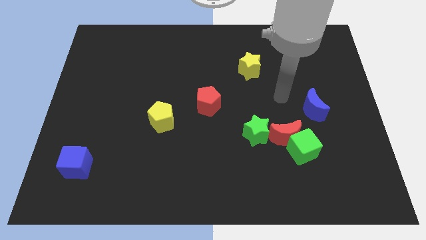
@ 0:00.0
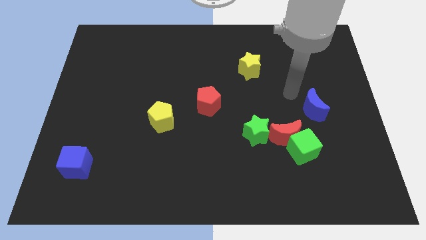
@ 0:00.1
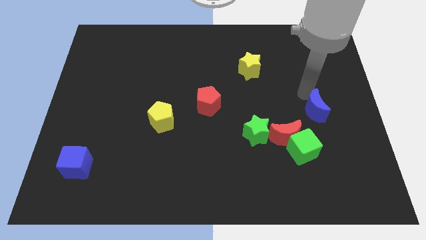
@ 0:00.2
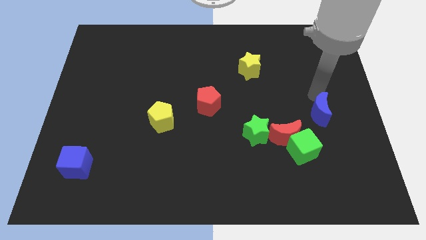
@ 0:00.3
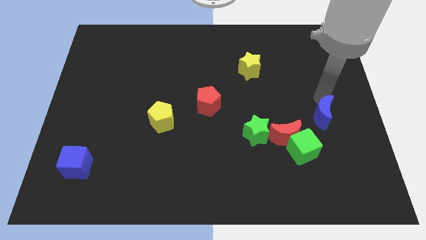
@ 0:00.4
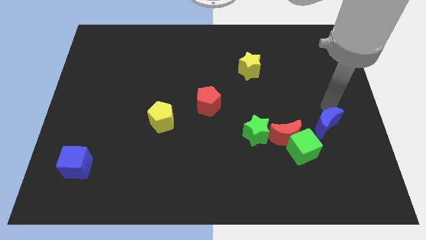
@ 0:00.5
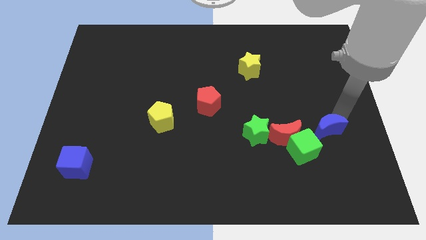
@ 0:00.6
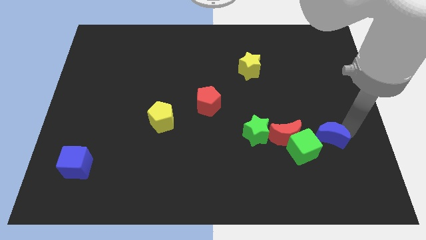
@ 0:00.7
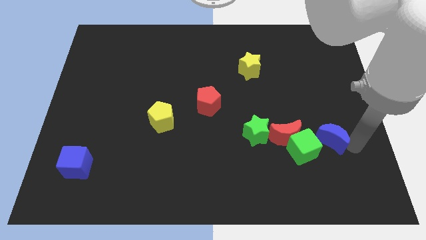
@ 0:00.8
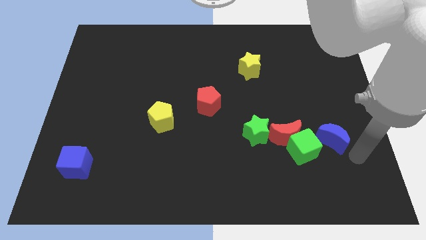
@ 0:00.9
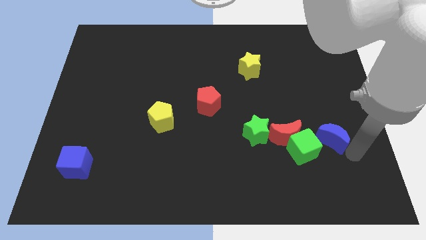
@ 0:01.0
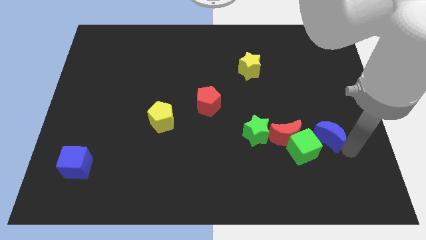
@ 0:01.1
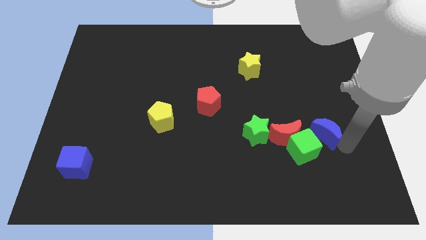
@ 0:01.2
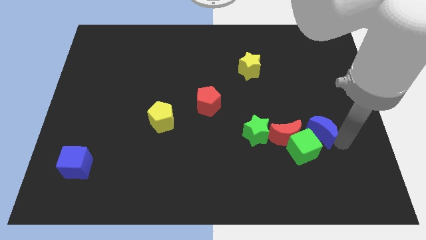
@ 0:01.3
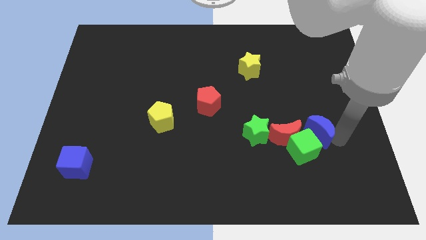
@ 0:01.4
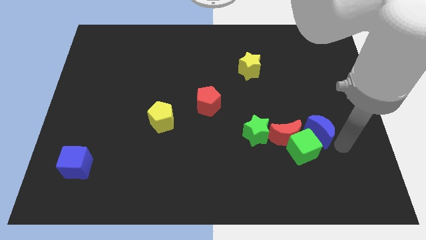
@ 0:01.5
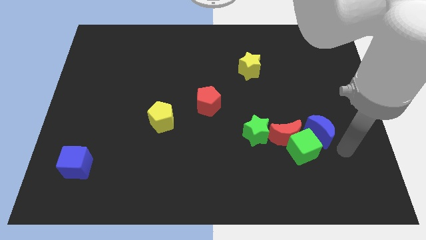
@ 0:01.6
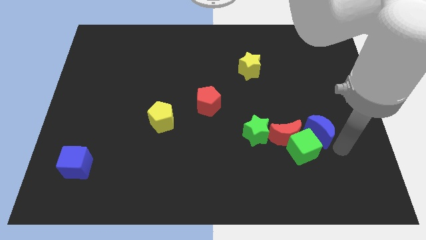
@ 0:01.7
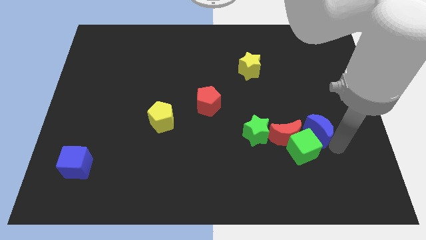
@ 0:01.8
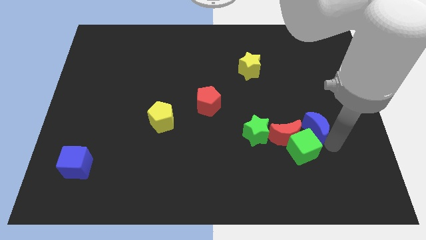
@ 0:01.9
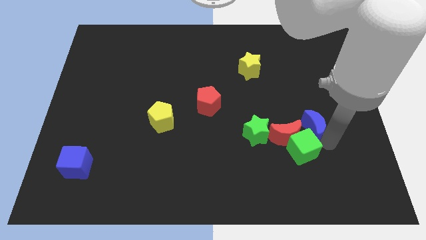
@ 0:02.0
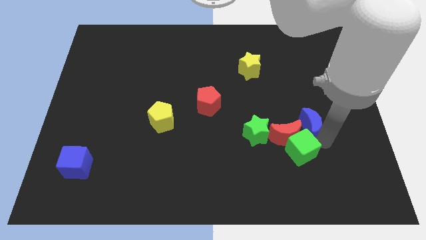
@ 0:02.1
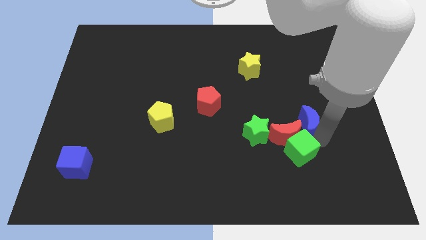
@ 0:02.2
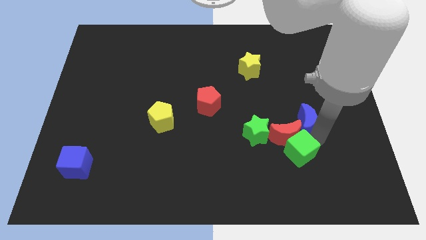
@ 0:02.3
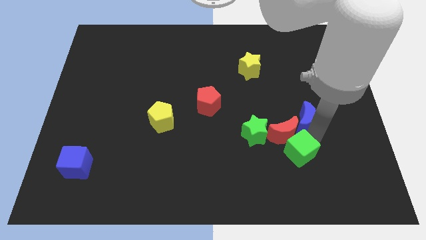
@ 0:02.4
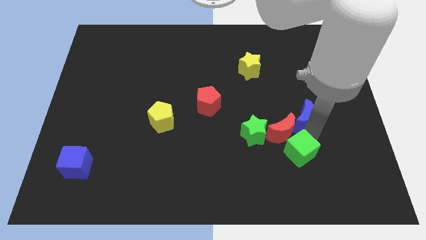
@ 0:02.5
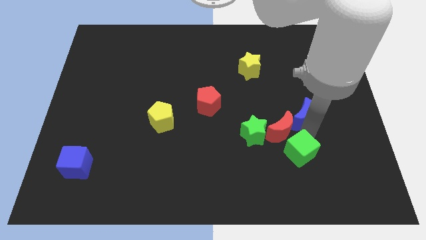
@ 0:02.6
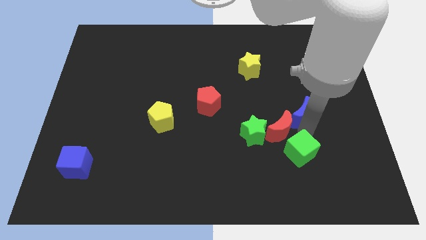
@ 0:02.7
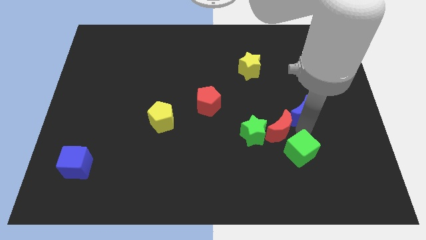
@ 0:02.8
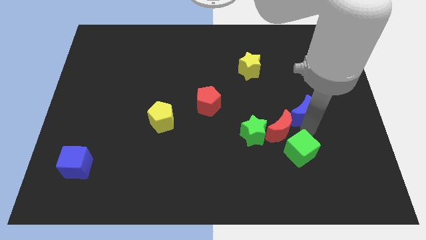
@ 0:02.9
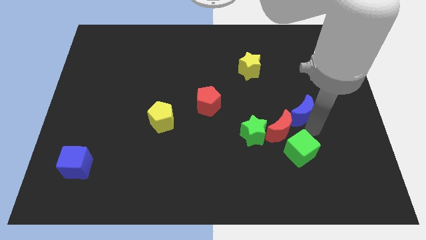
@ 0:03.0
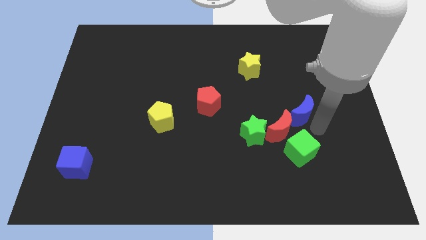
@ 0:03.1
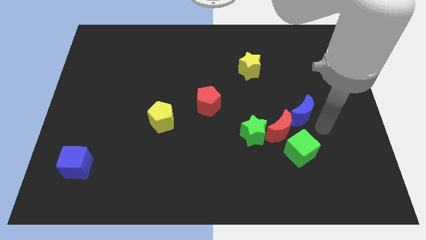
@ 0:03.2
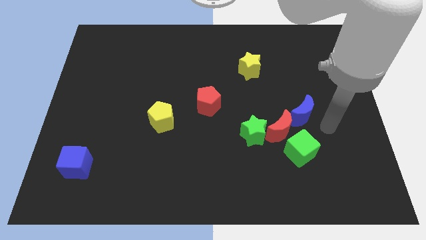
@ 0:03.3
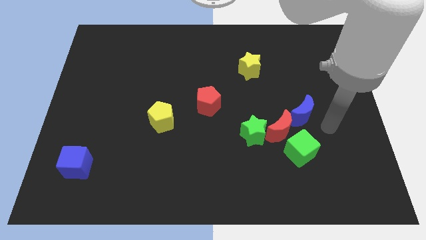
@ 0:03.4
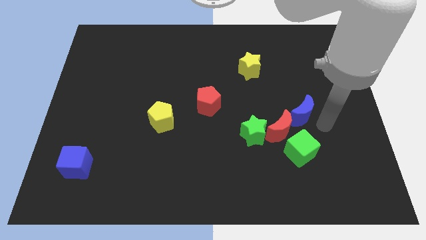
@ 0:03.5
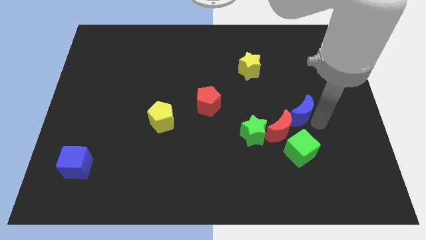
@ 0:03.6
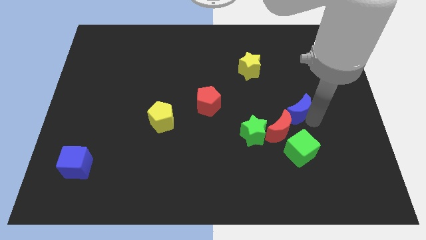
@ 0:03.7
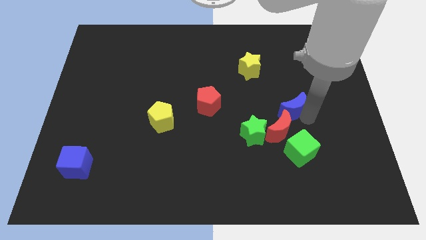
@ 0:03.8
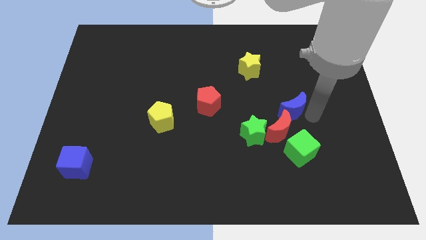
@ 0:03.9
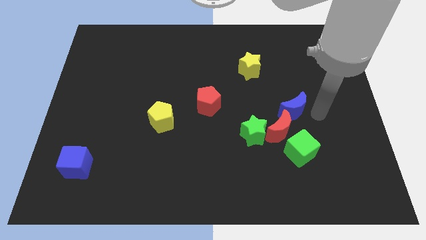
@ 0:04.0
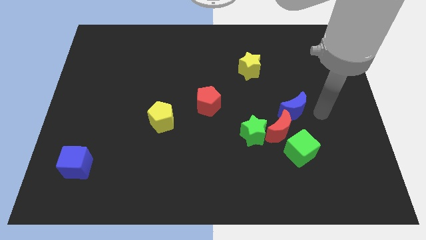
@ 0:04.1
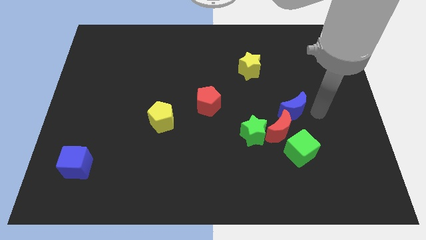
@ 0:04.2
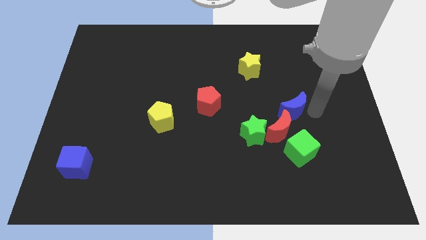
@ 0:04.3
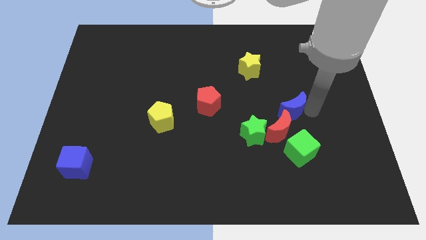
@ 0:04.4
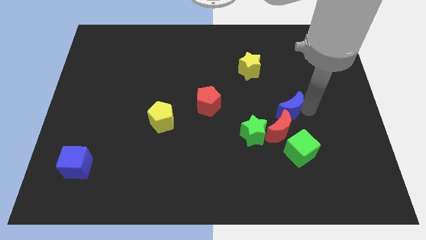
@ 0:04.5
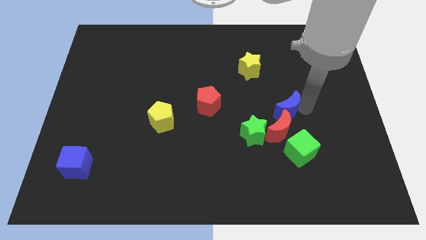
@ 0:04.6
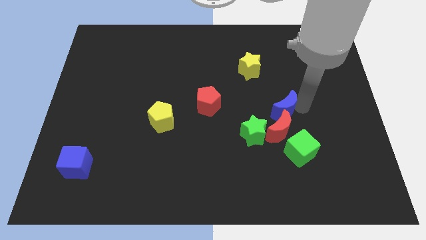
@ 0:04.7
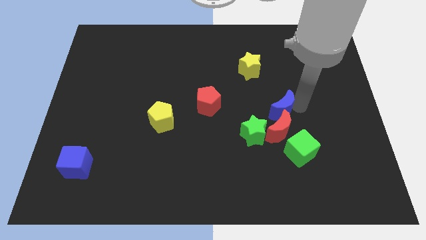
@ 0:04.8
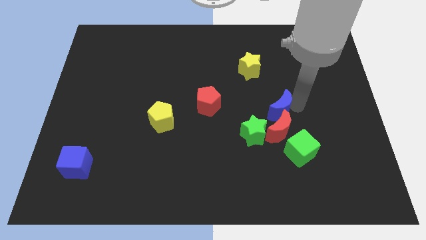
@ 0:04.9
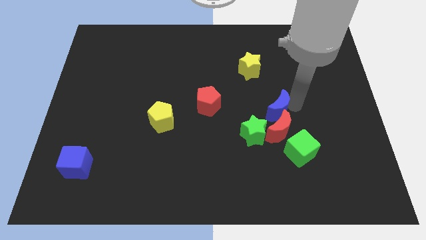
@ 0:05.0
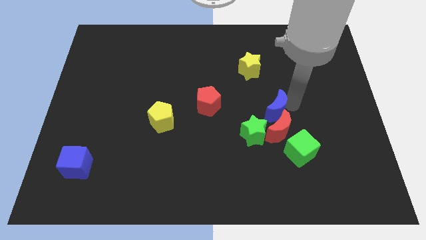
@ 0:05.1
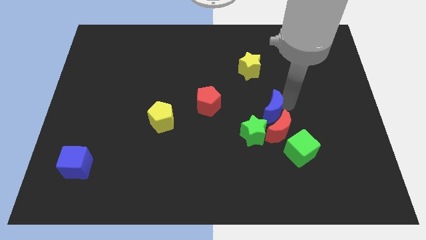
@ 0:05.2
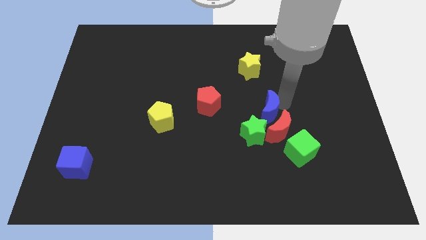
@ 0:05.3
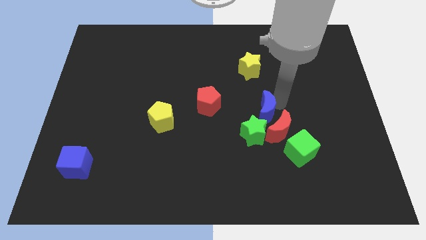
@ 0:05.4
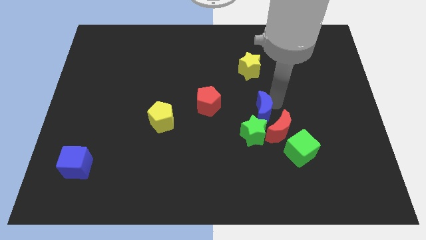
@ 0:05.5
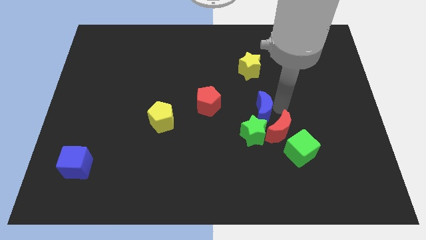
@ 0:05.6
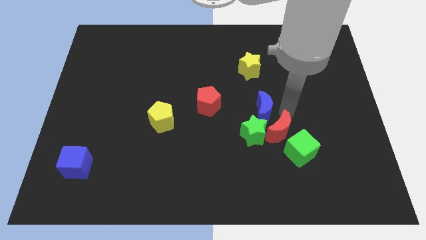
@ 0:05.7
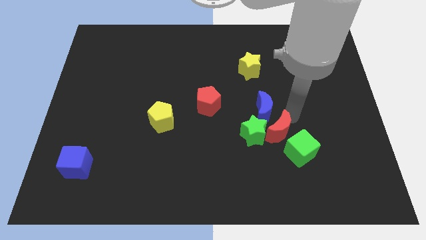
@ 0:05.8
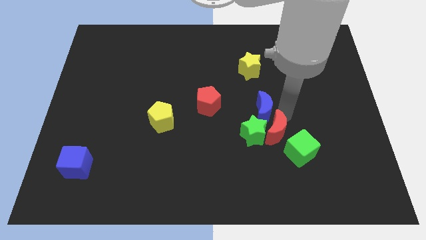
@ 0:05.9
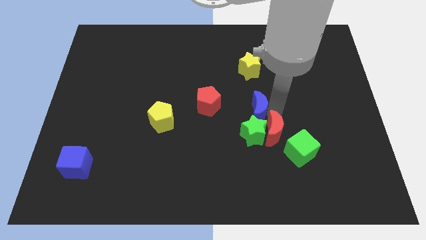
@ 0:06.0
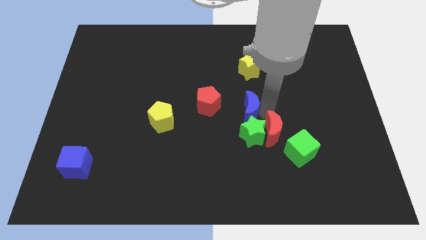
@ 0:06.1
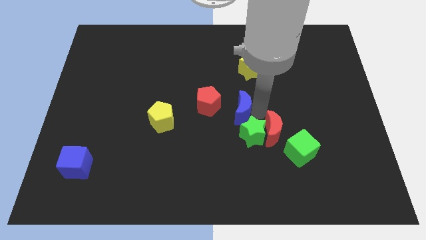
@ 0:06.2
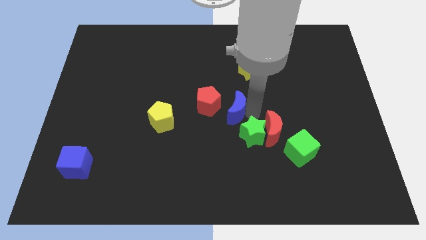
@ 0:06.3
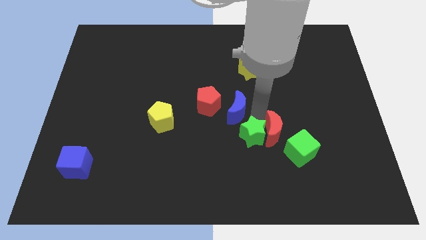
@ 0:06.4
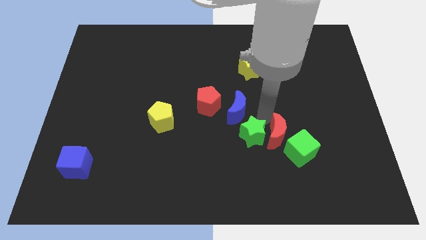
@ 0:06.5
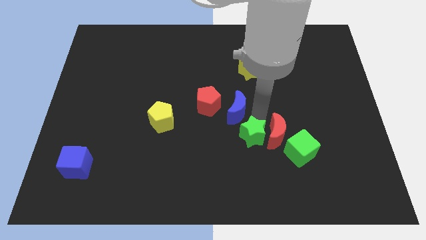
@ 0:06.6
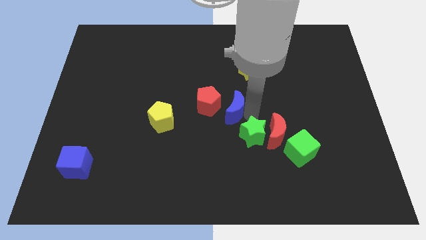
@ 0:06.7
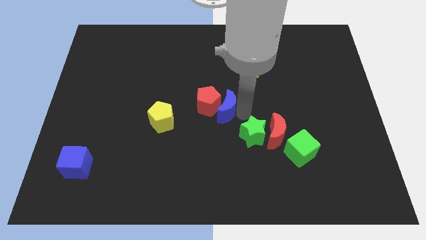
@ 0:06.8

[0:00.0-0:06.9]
move the blue moon next to the red pentagon

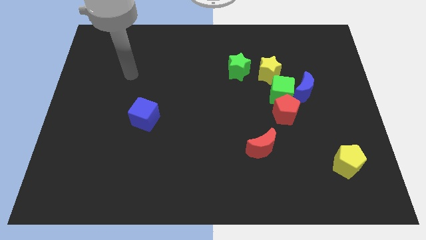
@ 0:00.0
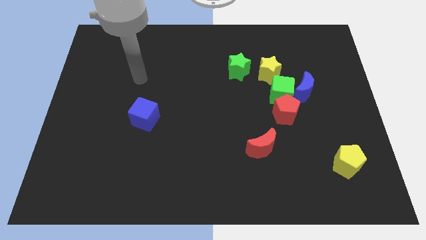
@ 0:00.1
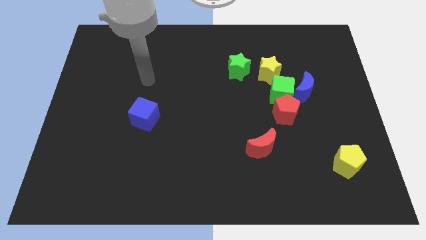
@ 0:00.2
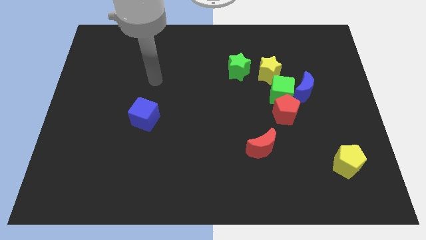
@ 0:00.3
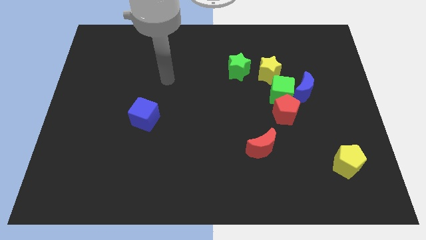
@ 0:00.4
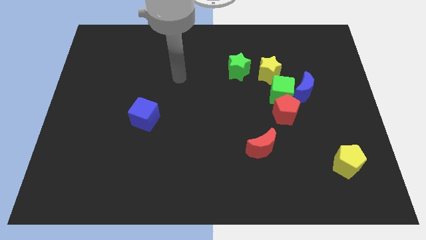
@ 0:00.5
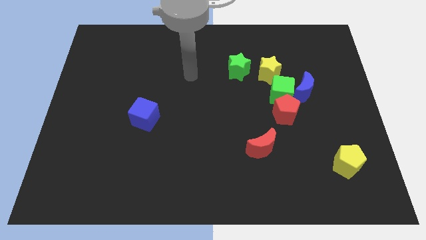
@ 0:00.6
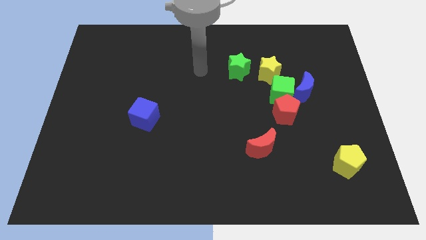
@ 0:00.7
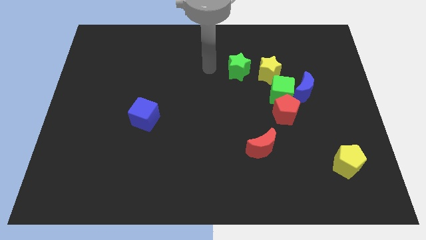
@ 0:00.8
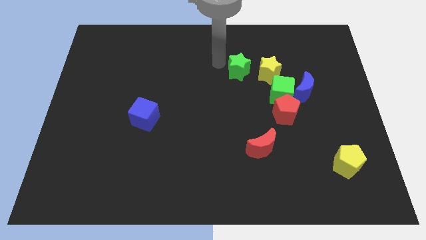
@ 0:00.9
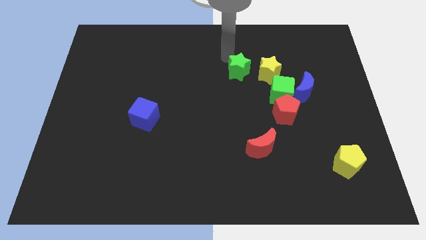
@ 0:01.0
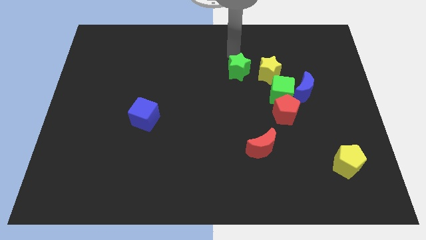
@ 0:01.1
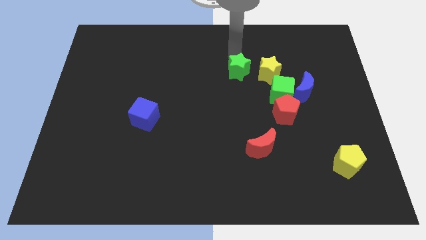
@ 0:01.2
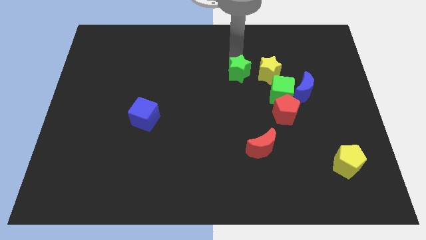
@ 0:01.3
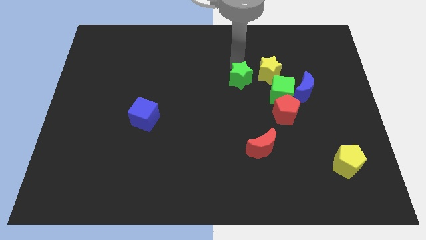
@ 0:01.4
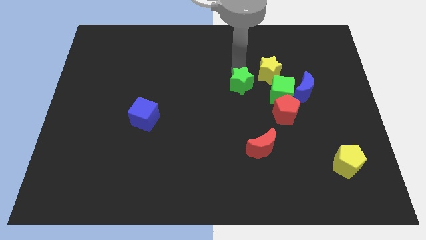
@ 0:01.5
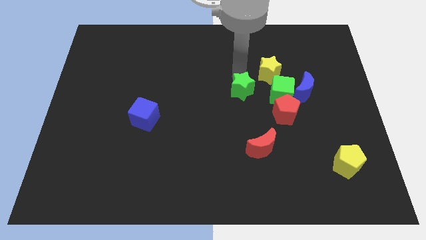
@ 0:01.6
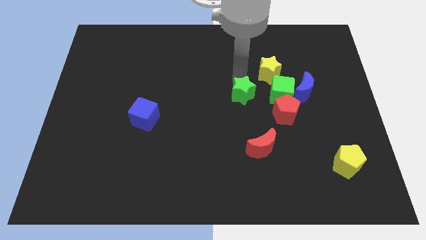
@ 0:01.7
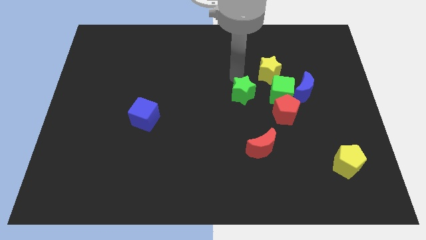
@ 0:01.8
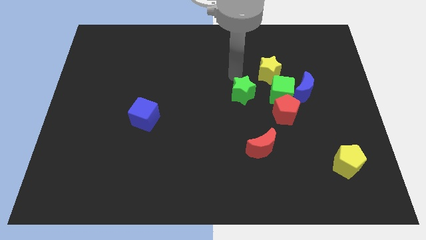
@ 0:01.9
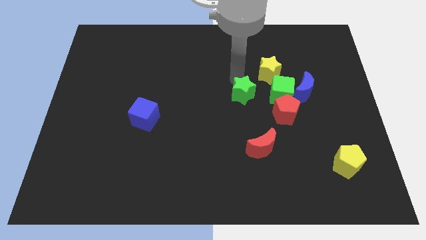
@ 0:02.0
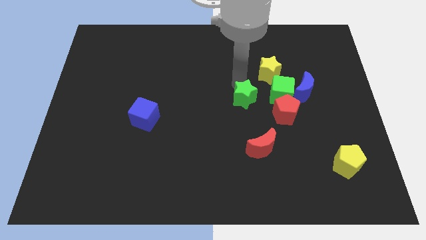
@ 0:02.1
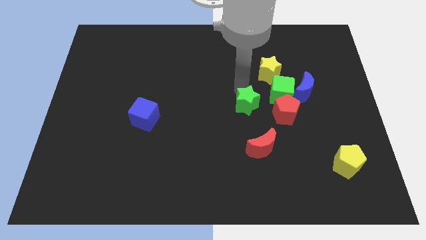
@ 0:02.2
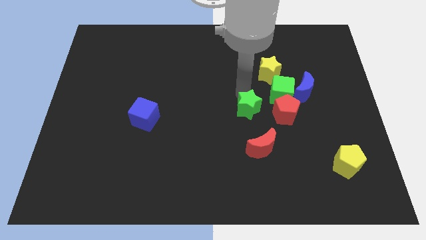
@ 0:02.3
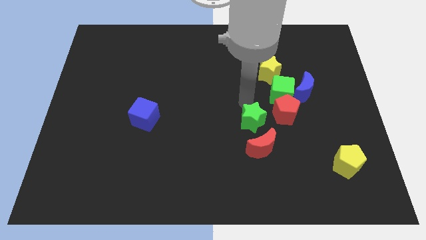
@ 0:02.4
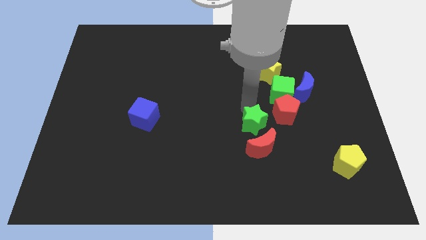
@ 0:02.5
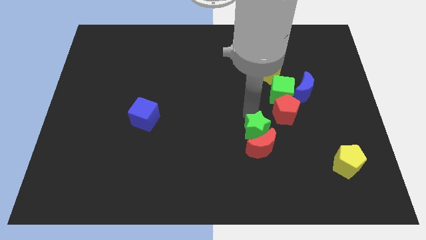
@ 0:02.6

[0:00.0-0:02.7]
move the green star close to the red moon
